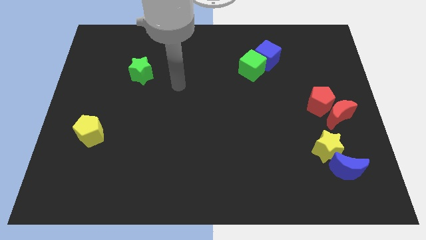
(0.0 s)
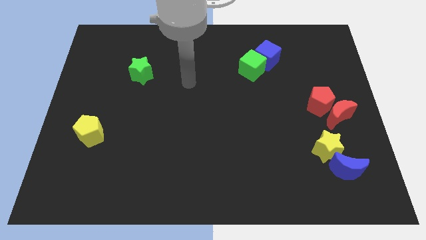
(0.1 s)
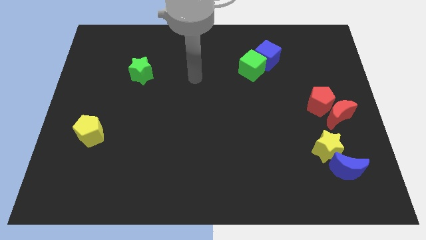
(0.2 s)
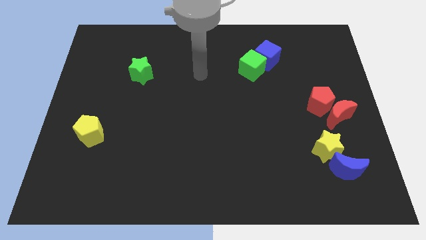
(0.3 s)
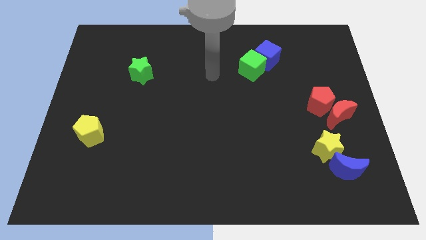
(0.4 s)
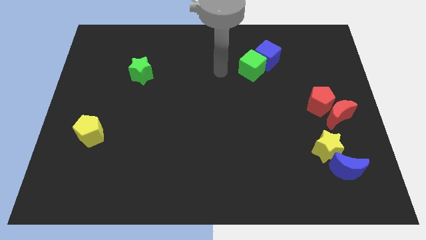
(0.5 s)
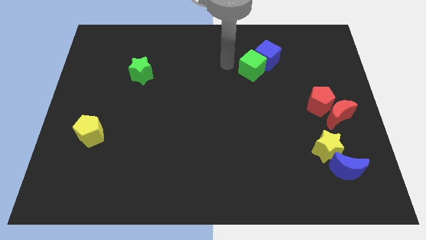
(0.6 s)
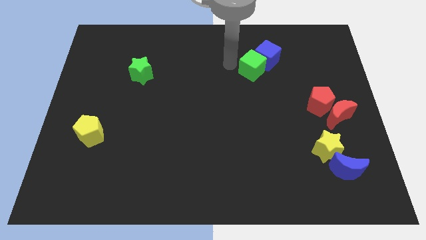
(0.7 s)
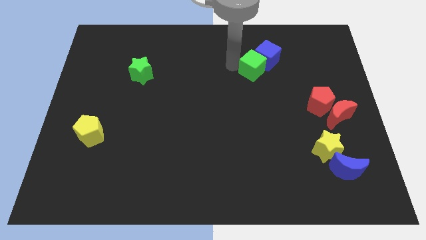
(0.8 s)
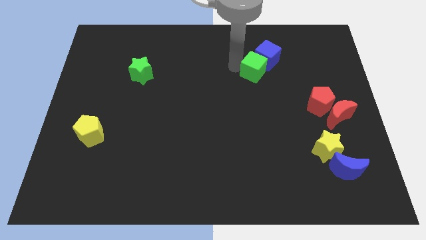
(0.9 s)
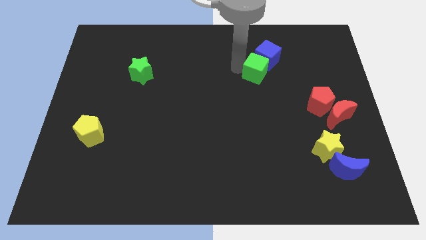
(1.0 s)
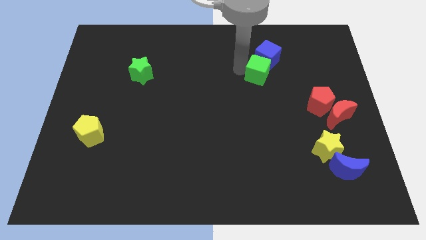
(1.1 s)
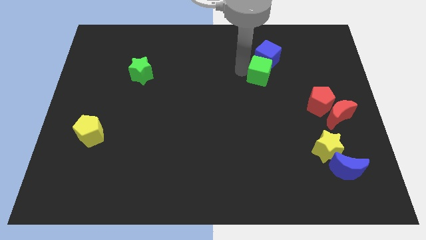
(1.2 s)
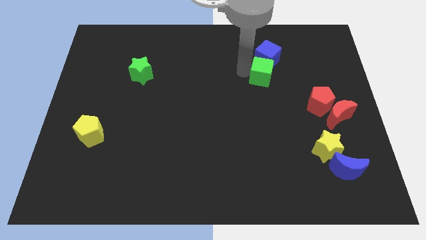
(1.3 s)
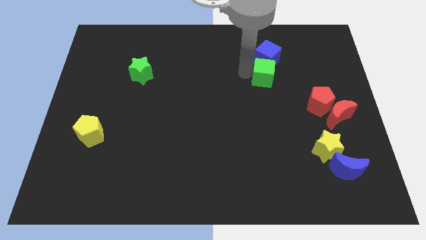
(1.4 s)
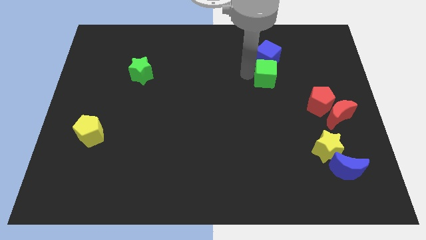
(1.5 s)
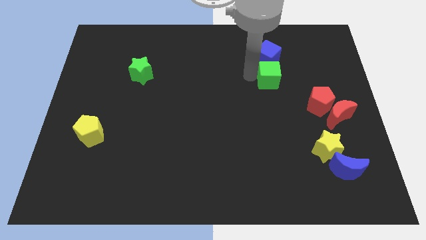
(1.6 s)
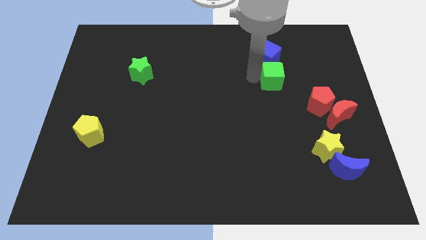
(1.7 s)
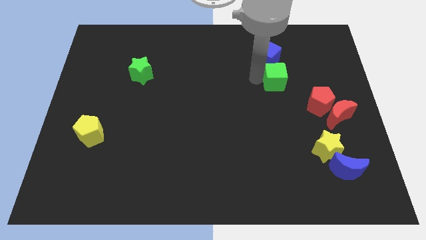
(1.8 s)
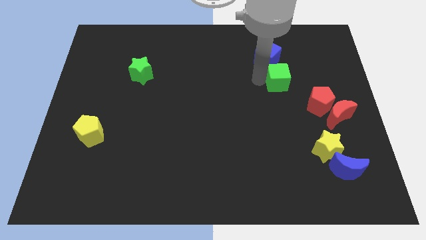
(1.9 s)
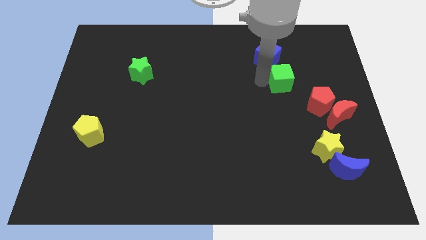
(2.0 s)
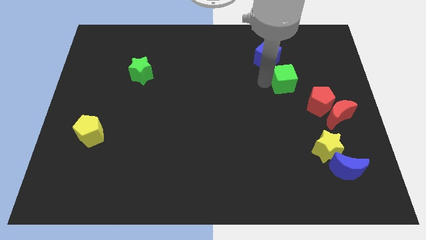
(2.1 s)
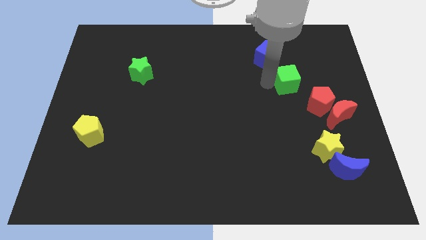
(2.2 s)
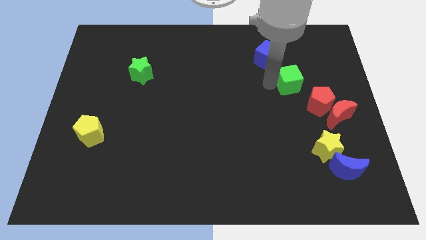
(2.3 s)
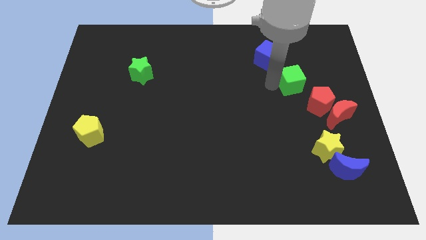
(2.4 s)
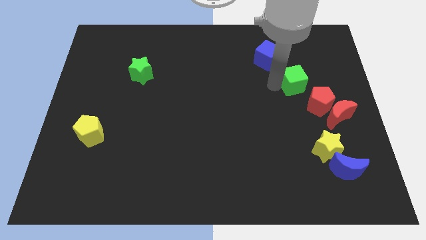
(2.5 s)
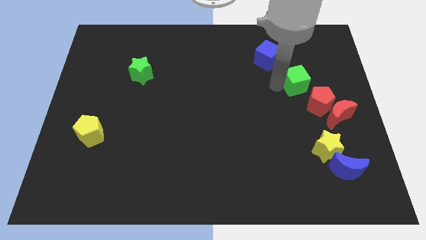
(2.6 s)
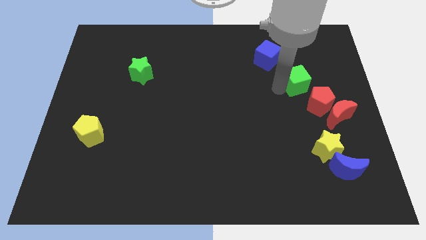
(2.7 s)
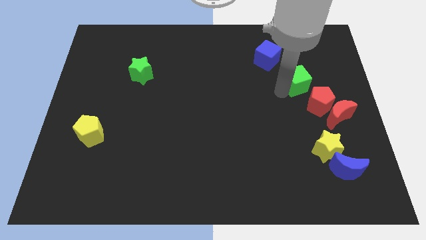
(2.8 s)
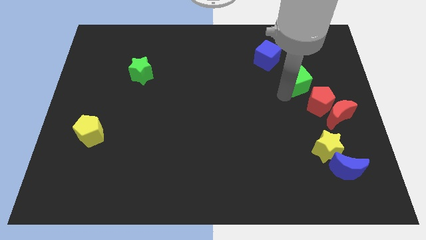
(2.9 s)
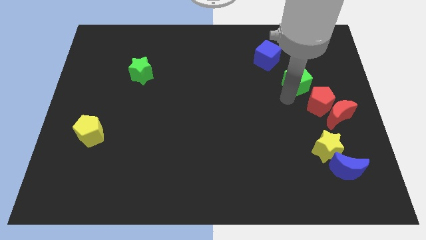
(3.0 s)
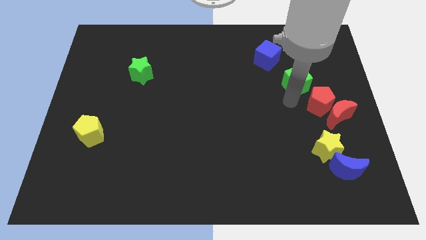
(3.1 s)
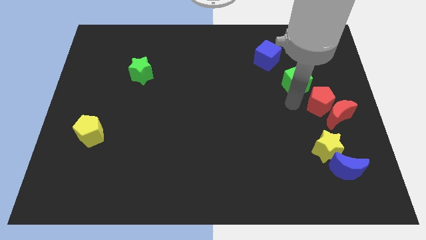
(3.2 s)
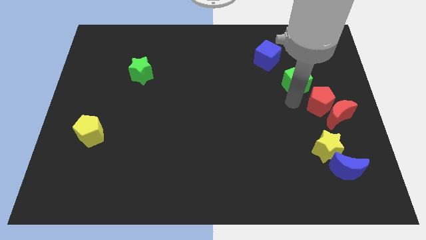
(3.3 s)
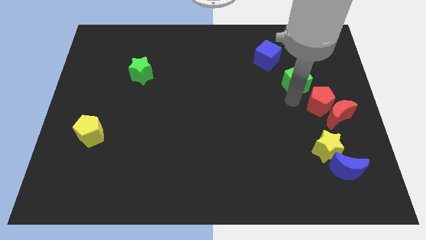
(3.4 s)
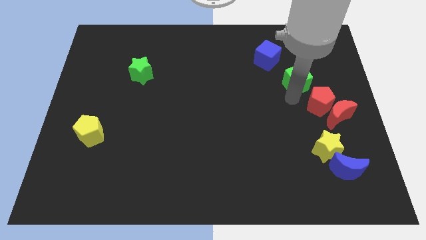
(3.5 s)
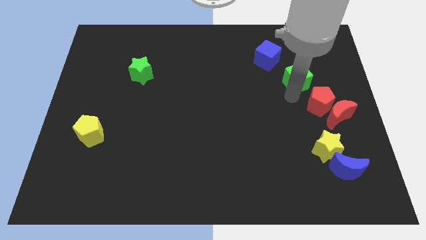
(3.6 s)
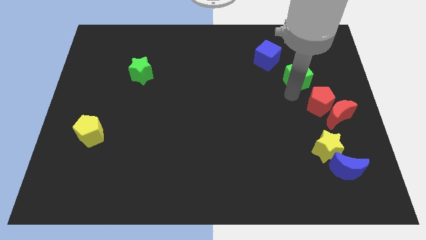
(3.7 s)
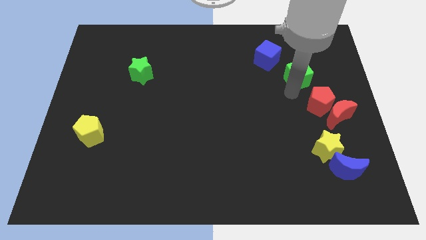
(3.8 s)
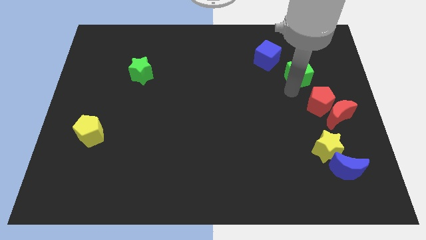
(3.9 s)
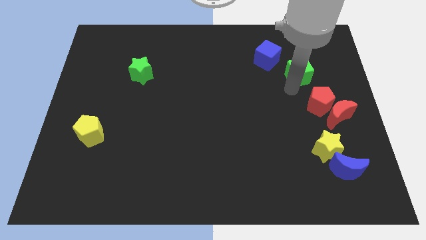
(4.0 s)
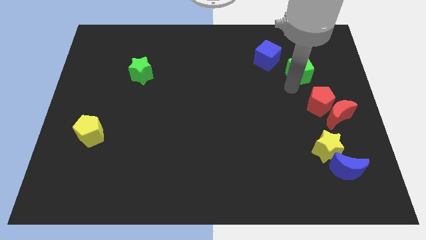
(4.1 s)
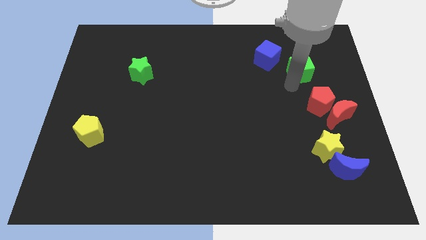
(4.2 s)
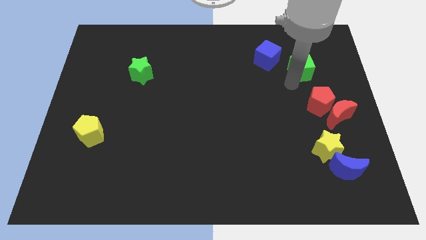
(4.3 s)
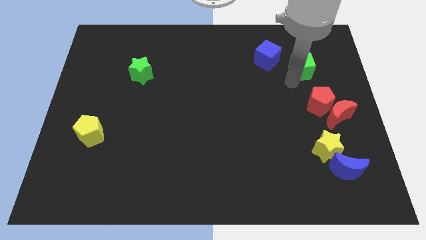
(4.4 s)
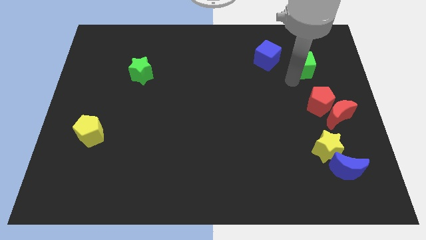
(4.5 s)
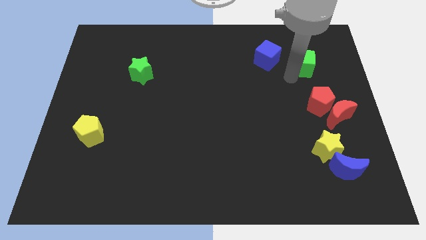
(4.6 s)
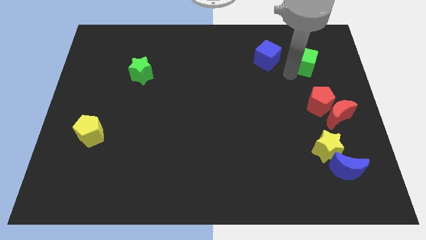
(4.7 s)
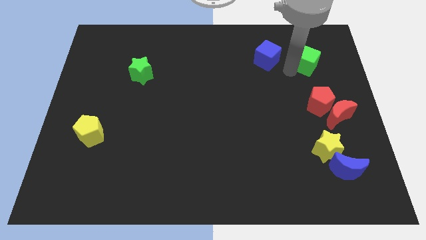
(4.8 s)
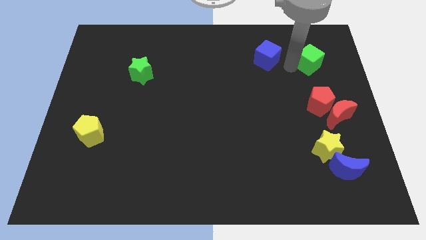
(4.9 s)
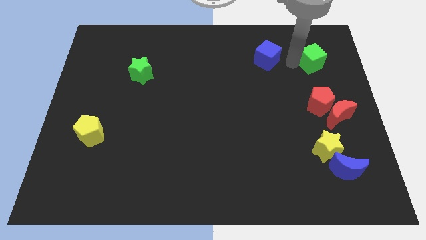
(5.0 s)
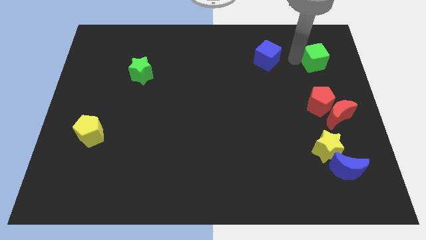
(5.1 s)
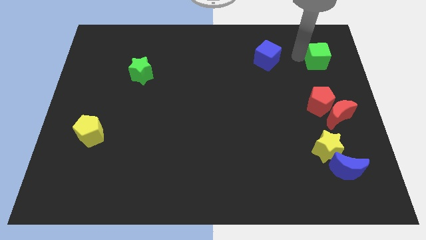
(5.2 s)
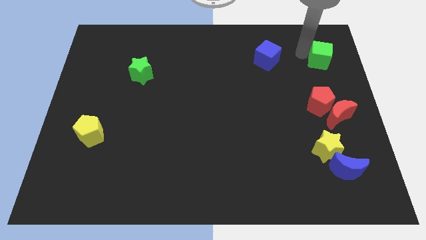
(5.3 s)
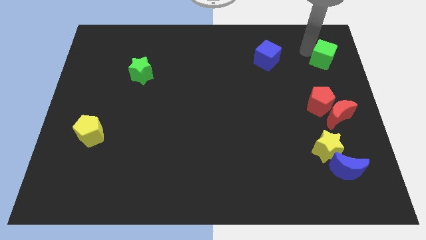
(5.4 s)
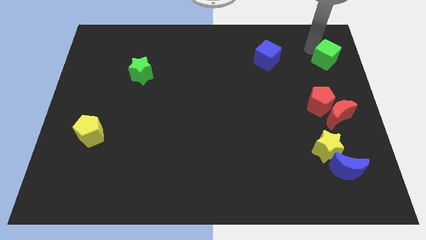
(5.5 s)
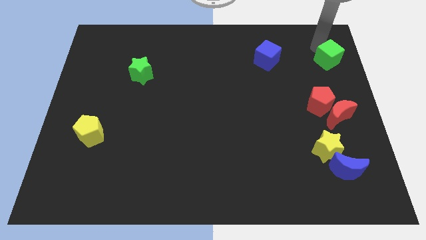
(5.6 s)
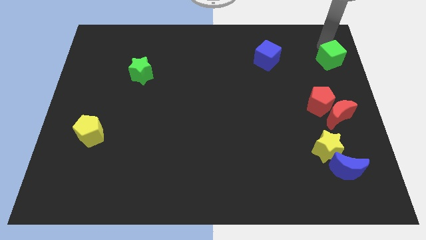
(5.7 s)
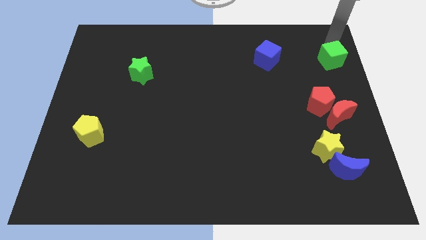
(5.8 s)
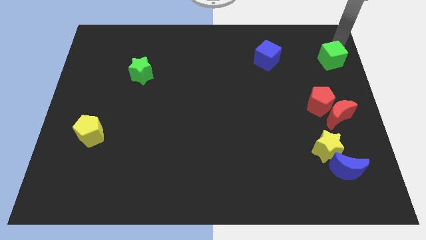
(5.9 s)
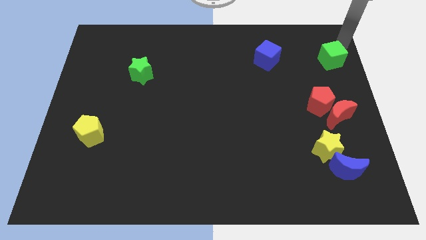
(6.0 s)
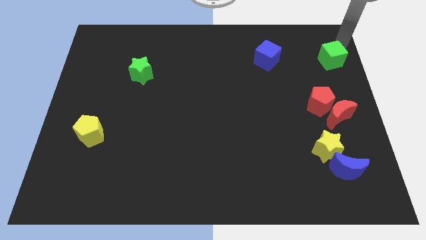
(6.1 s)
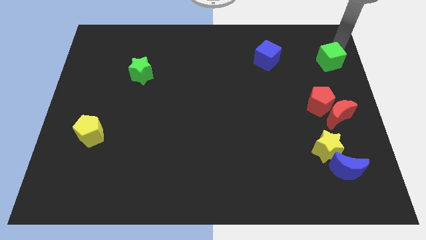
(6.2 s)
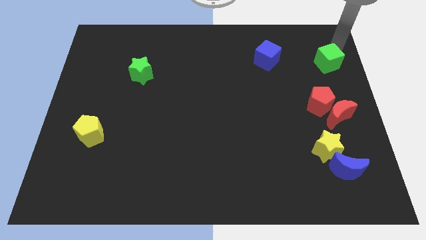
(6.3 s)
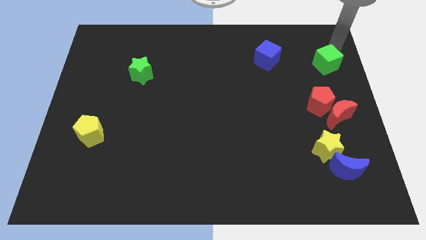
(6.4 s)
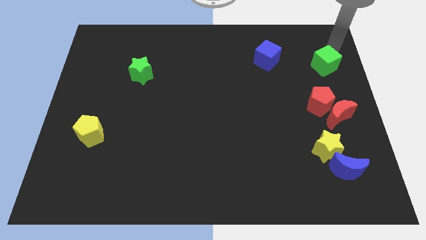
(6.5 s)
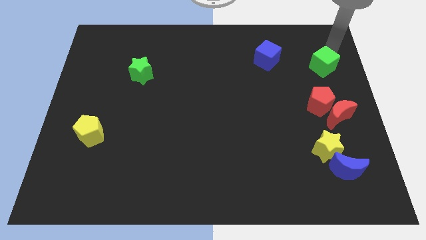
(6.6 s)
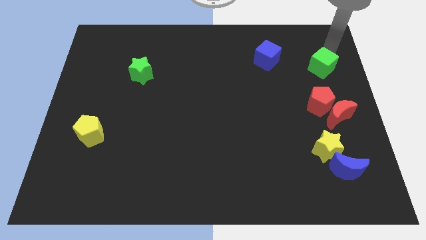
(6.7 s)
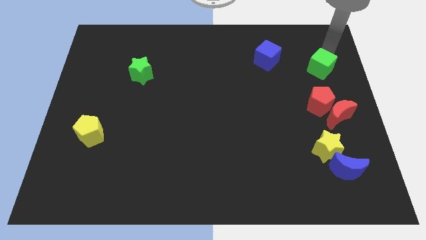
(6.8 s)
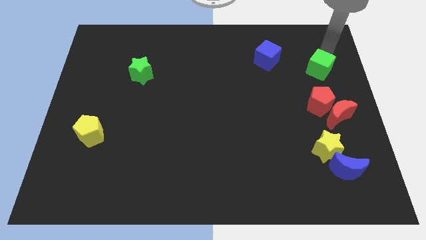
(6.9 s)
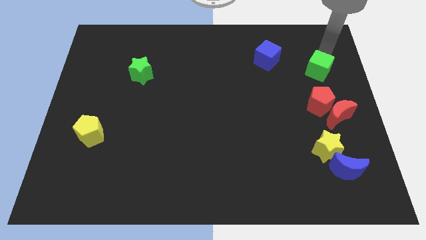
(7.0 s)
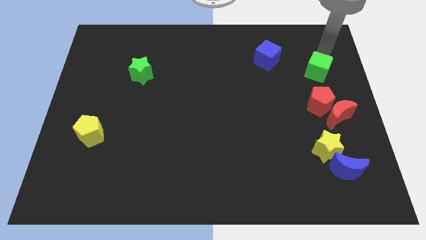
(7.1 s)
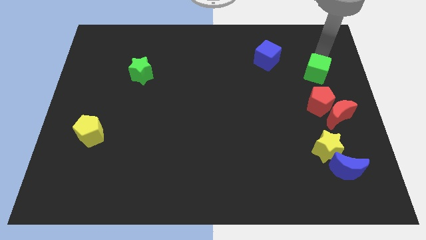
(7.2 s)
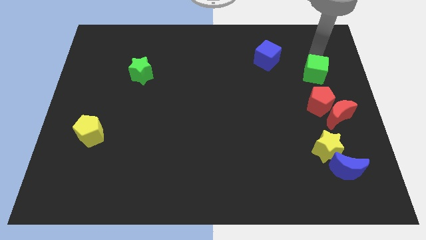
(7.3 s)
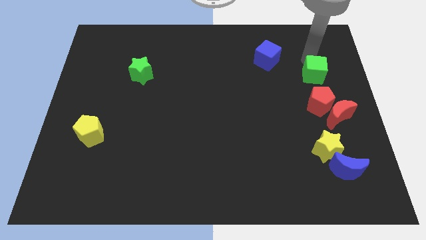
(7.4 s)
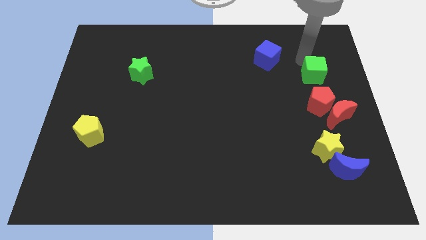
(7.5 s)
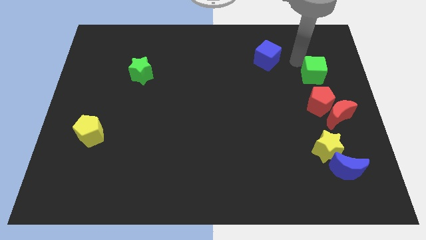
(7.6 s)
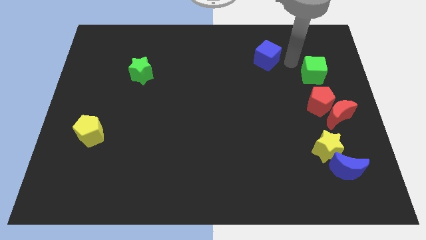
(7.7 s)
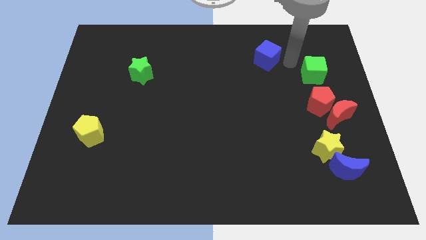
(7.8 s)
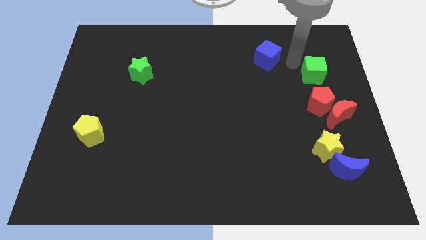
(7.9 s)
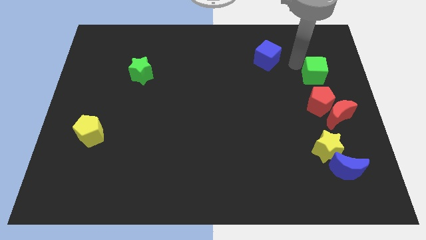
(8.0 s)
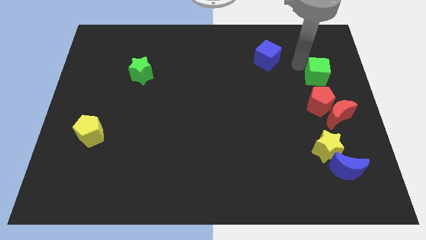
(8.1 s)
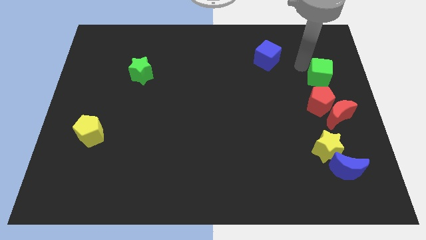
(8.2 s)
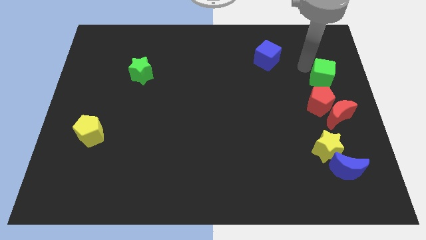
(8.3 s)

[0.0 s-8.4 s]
slide the green cube to the right side of the board
